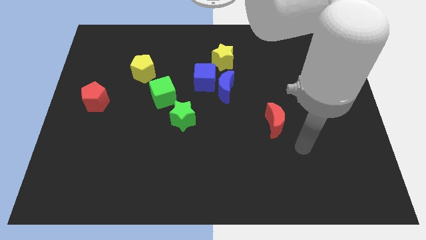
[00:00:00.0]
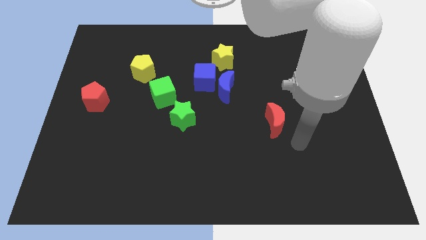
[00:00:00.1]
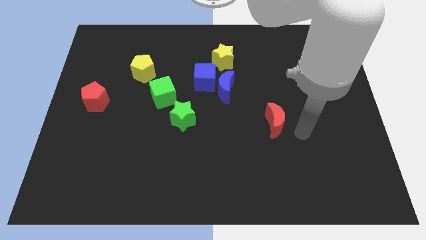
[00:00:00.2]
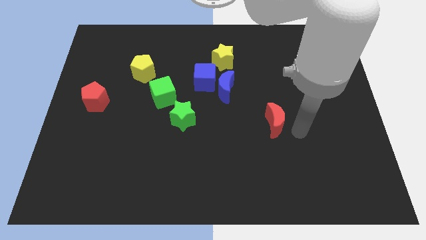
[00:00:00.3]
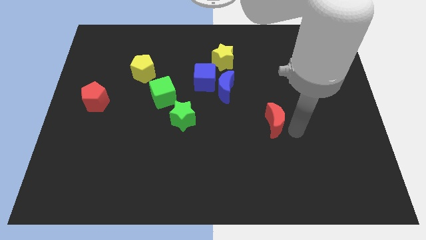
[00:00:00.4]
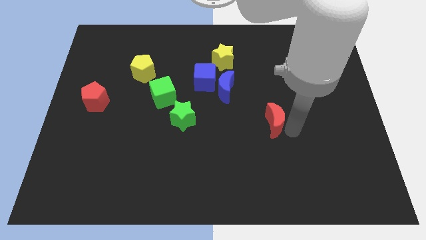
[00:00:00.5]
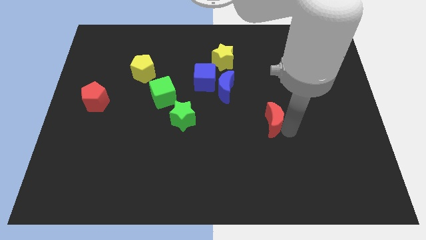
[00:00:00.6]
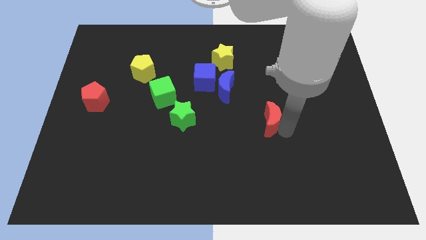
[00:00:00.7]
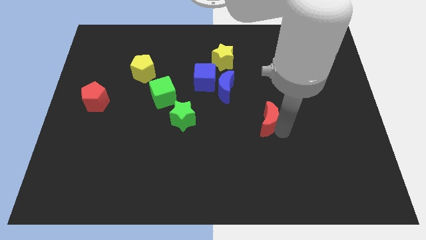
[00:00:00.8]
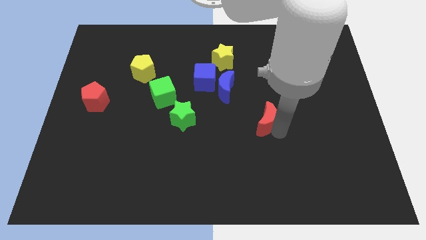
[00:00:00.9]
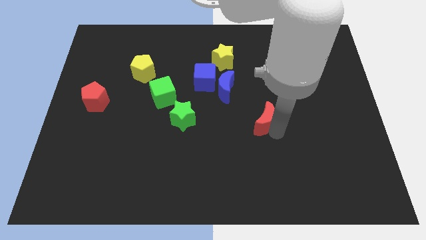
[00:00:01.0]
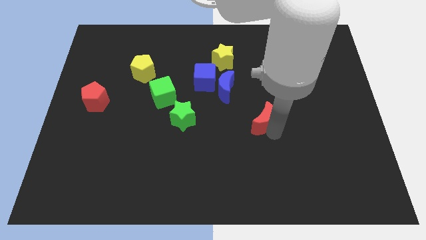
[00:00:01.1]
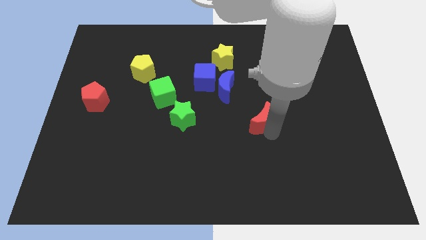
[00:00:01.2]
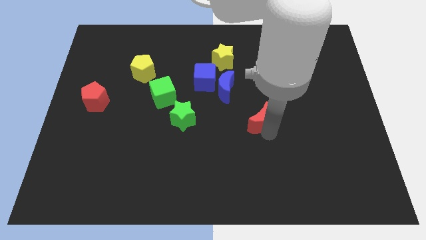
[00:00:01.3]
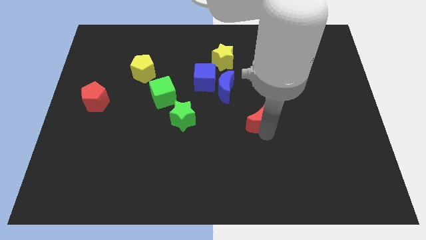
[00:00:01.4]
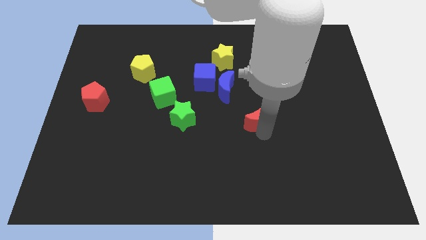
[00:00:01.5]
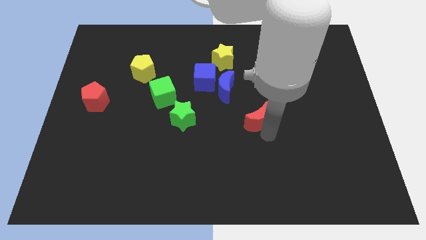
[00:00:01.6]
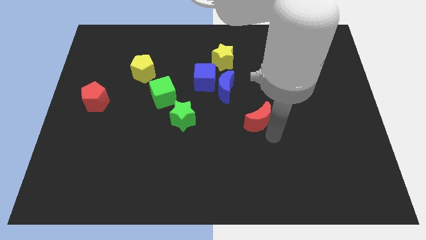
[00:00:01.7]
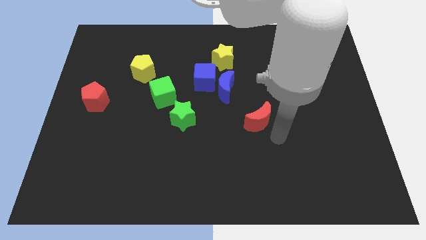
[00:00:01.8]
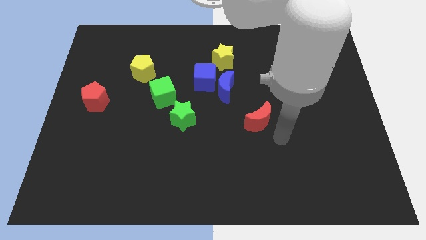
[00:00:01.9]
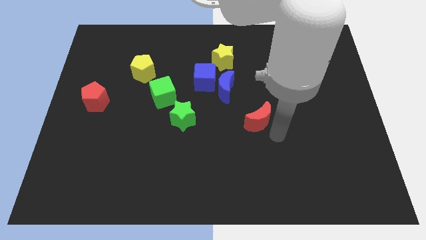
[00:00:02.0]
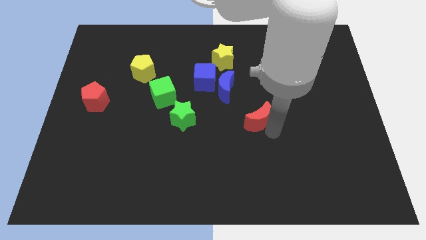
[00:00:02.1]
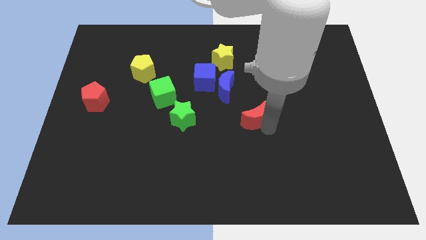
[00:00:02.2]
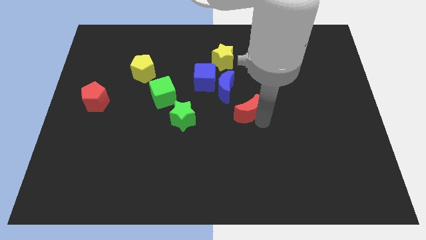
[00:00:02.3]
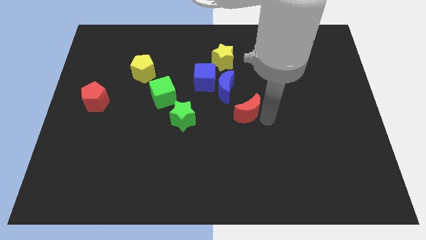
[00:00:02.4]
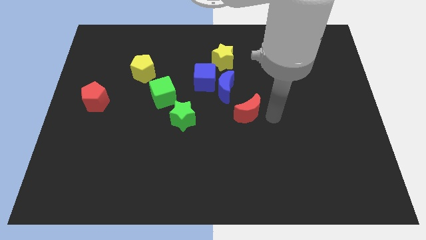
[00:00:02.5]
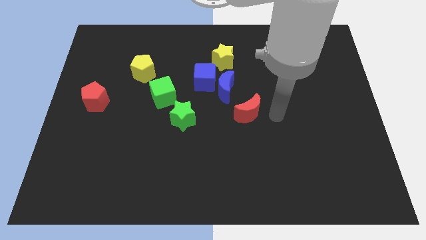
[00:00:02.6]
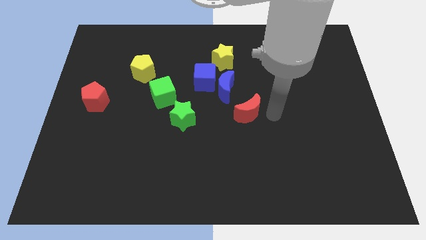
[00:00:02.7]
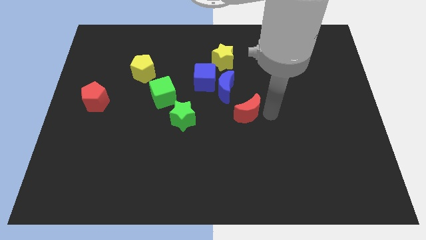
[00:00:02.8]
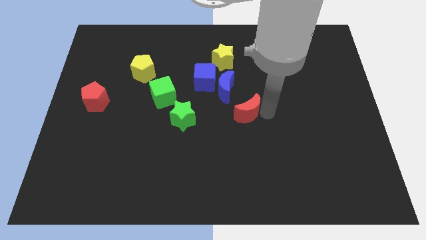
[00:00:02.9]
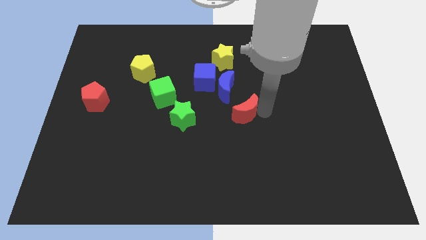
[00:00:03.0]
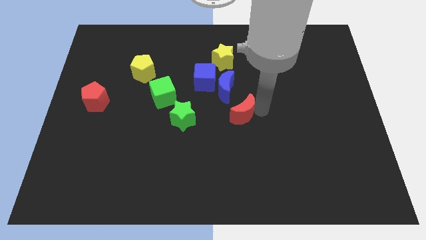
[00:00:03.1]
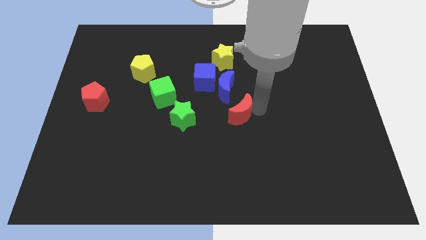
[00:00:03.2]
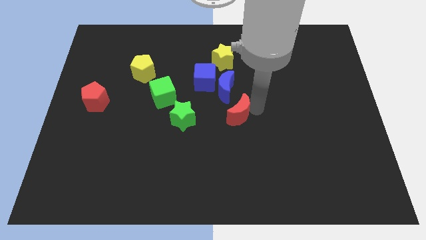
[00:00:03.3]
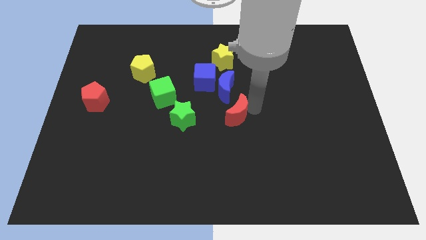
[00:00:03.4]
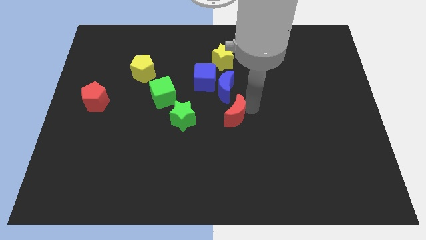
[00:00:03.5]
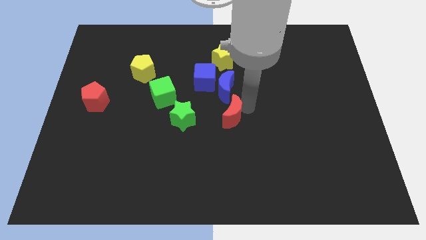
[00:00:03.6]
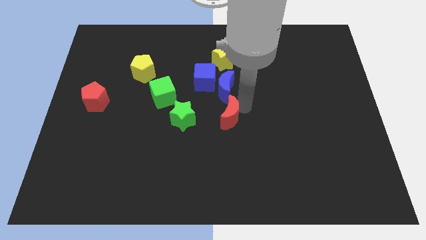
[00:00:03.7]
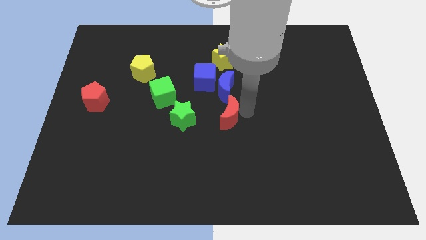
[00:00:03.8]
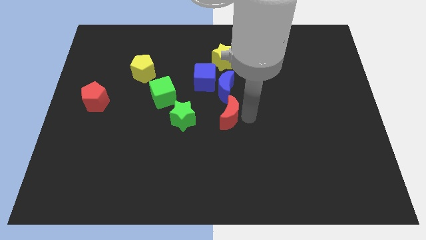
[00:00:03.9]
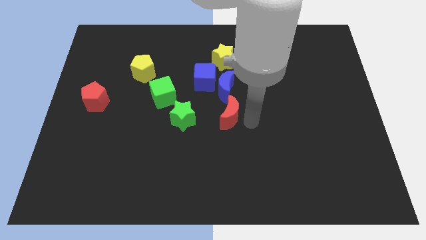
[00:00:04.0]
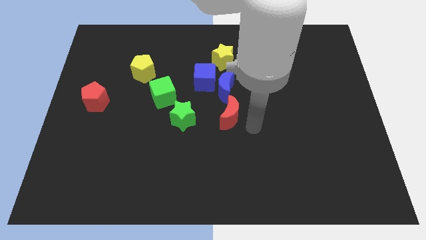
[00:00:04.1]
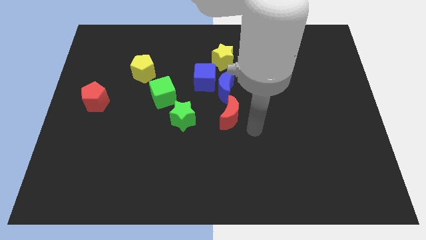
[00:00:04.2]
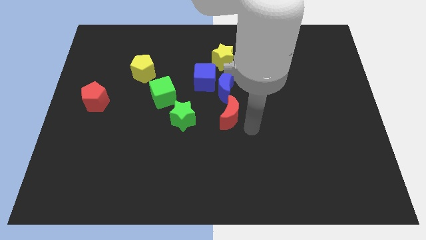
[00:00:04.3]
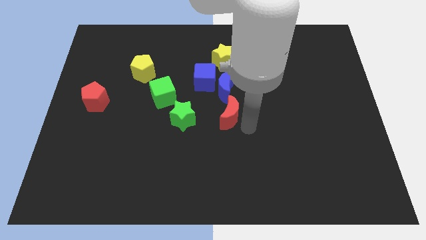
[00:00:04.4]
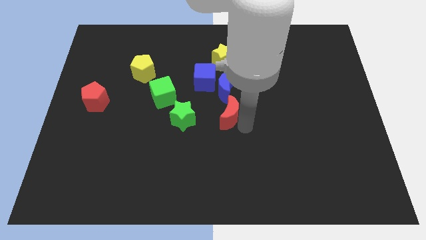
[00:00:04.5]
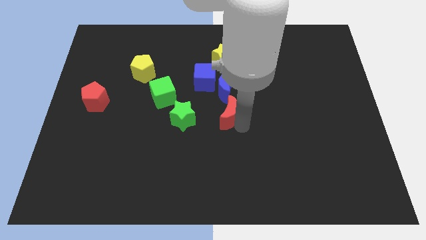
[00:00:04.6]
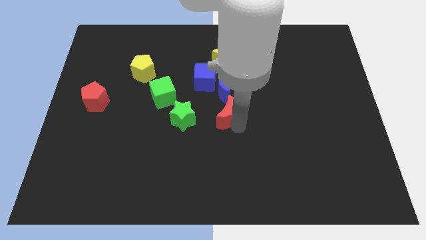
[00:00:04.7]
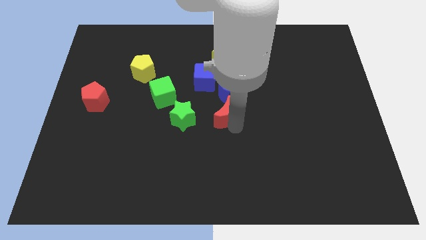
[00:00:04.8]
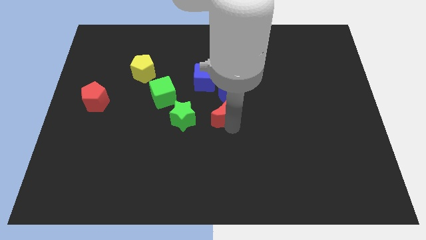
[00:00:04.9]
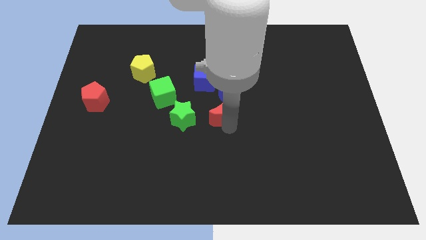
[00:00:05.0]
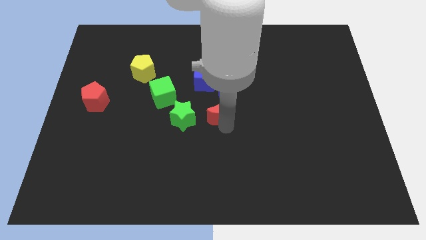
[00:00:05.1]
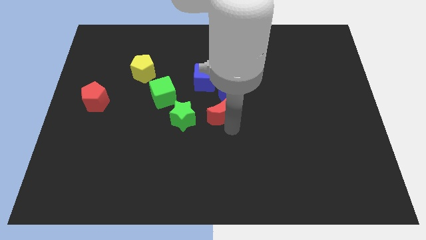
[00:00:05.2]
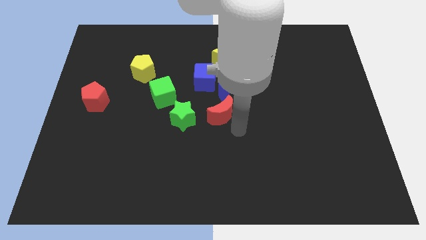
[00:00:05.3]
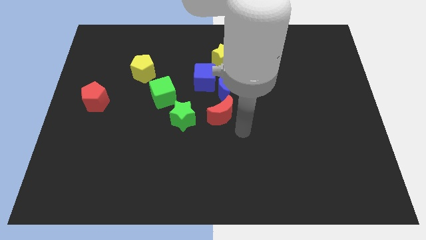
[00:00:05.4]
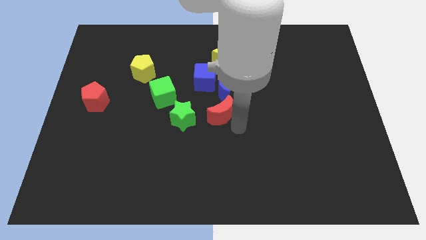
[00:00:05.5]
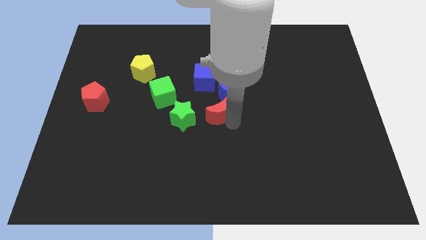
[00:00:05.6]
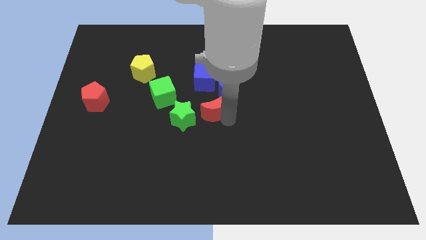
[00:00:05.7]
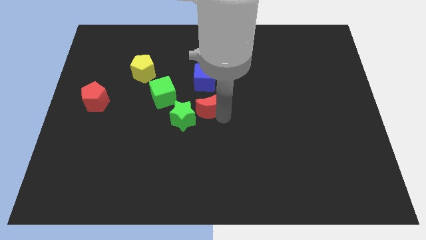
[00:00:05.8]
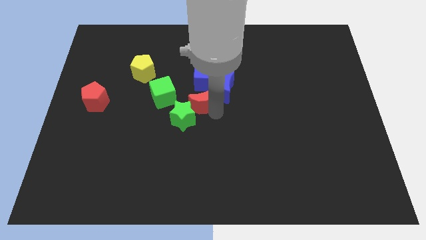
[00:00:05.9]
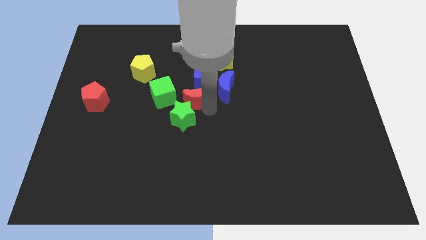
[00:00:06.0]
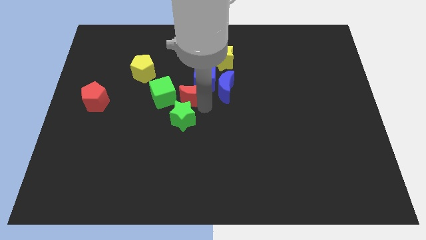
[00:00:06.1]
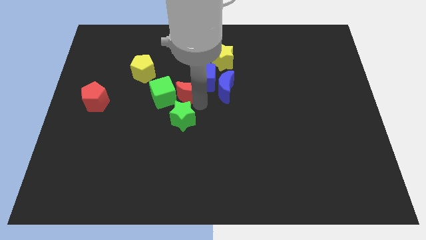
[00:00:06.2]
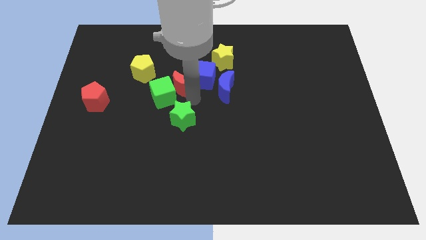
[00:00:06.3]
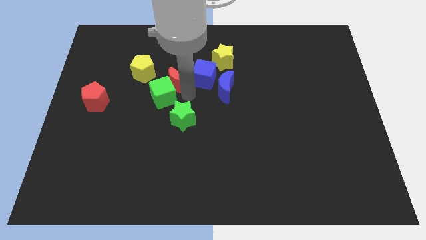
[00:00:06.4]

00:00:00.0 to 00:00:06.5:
move the red moon just right of the yellow pentagon

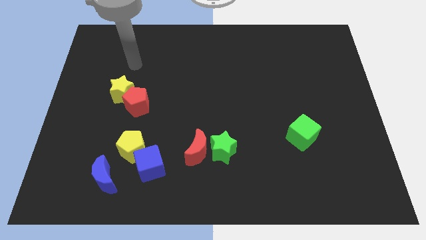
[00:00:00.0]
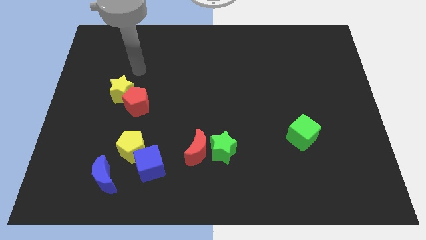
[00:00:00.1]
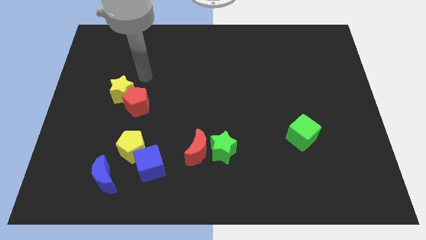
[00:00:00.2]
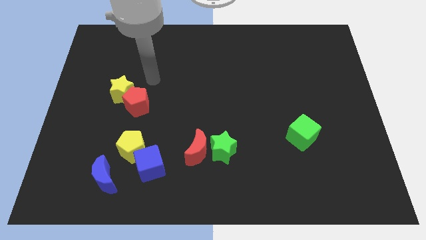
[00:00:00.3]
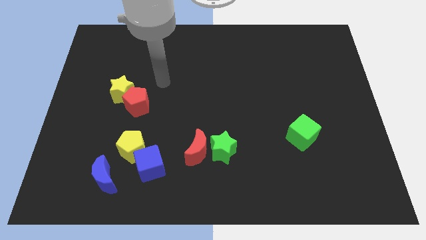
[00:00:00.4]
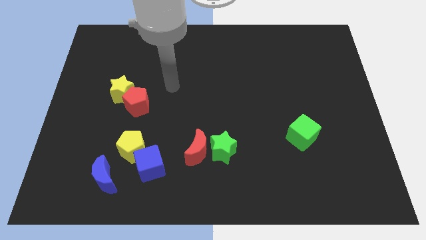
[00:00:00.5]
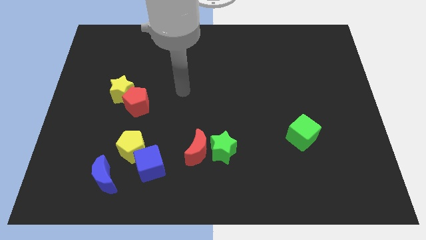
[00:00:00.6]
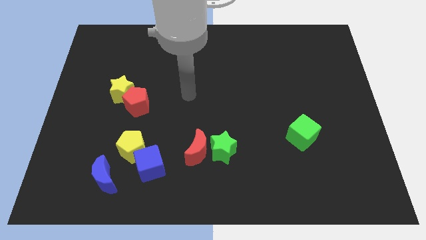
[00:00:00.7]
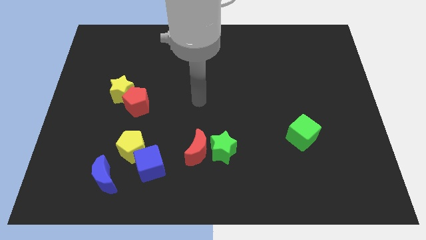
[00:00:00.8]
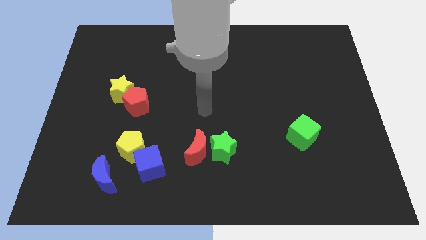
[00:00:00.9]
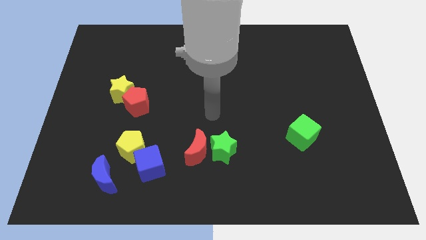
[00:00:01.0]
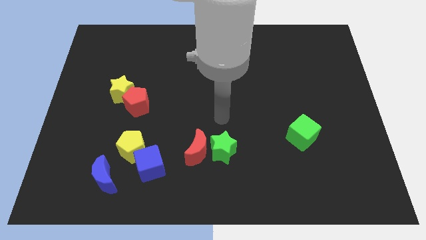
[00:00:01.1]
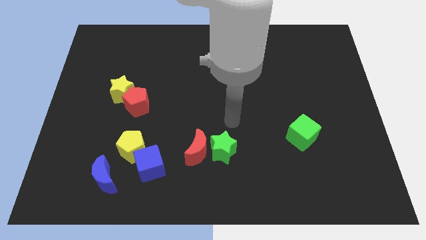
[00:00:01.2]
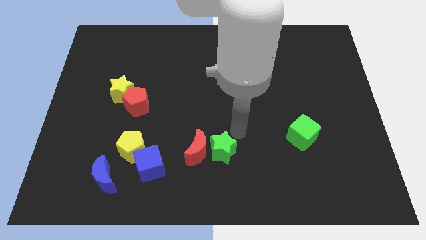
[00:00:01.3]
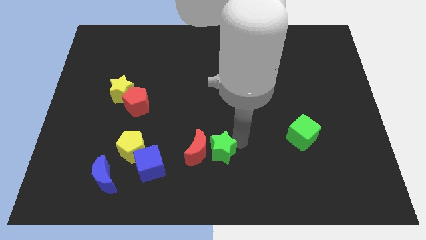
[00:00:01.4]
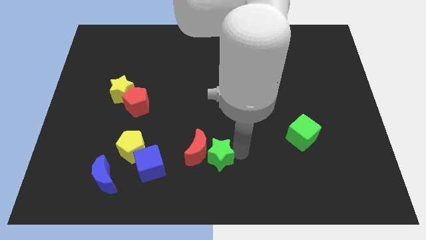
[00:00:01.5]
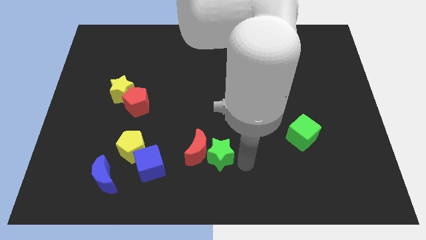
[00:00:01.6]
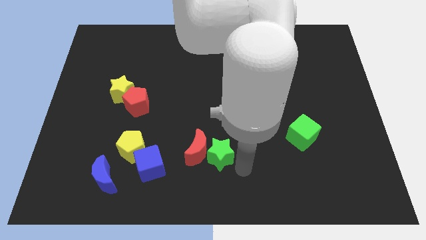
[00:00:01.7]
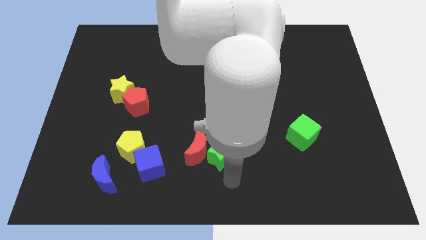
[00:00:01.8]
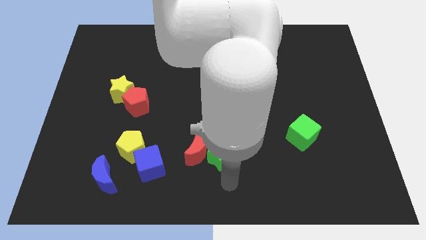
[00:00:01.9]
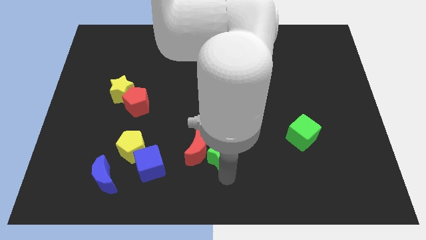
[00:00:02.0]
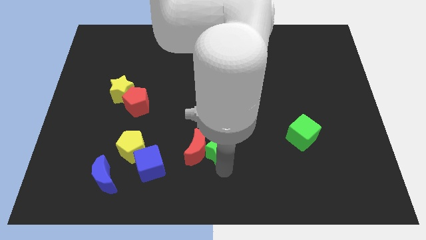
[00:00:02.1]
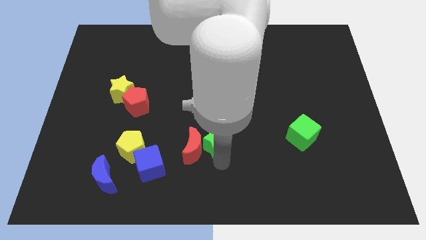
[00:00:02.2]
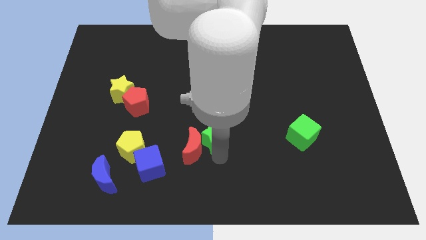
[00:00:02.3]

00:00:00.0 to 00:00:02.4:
slide the green star to the top of the red moon
